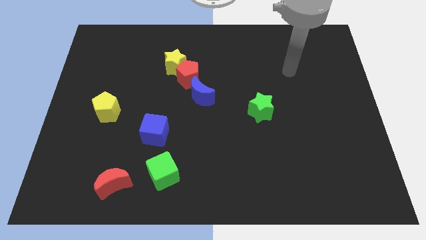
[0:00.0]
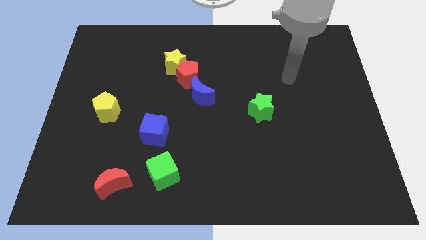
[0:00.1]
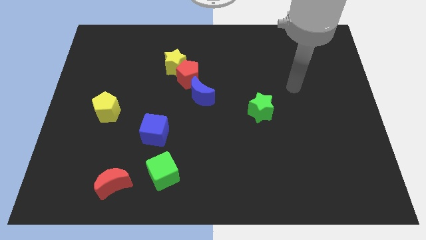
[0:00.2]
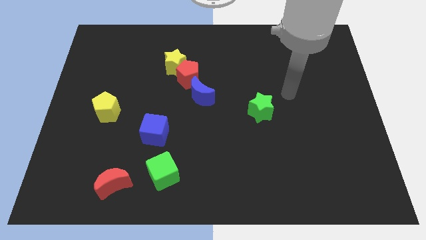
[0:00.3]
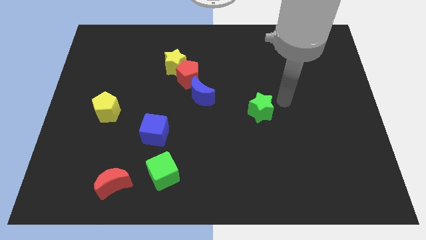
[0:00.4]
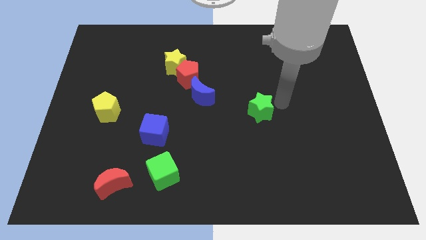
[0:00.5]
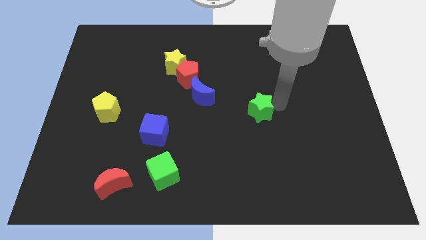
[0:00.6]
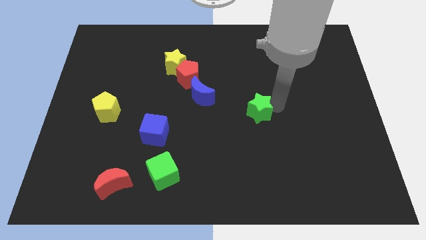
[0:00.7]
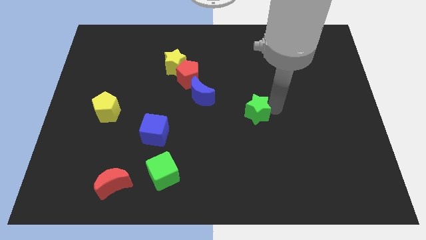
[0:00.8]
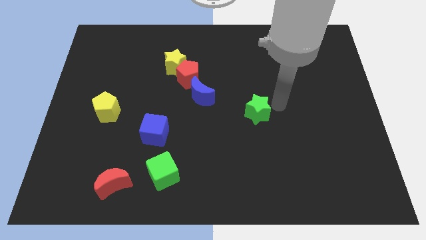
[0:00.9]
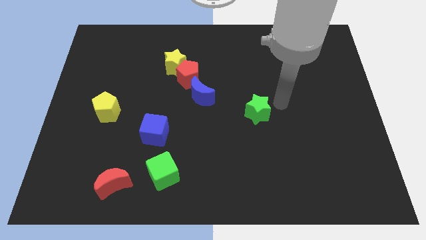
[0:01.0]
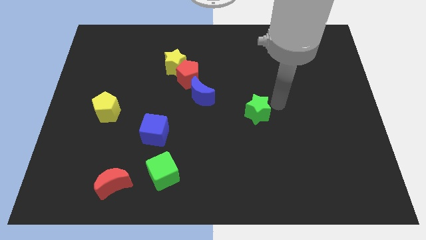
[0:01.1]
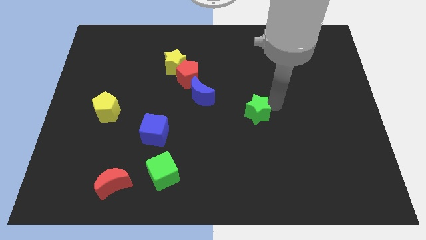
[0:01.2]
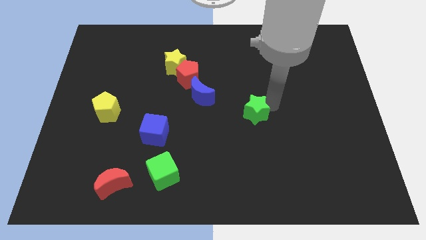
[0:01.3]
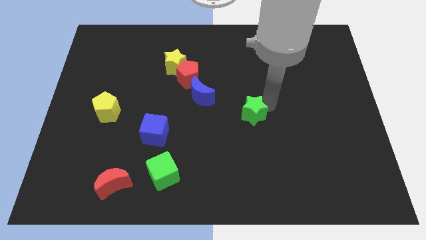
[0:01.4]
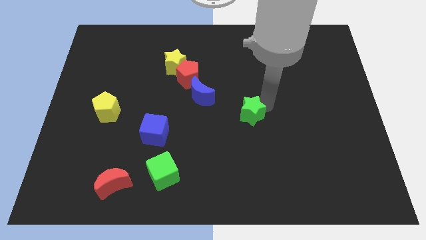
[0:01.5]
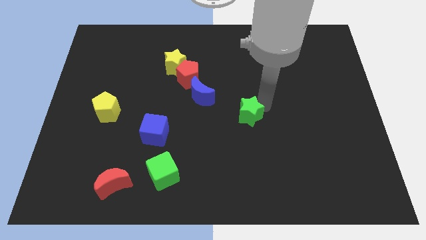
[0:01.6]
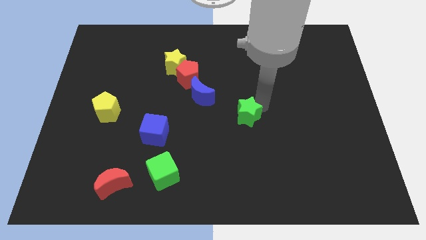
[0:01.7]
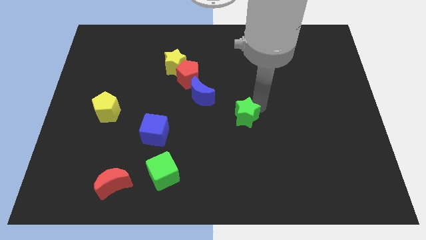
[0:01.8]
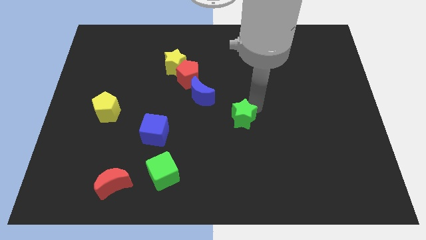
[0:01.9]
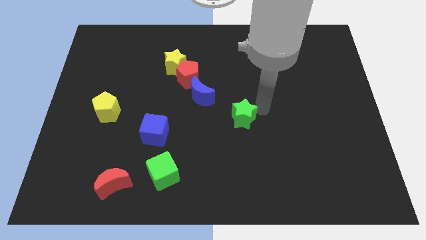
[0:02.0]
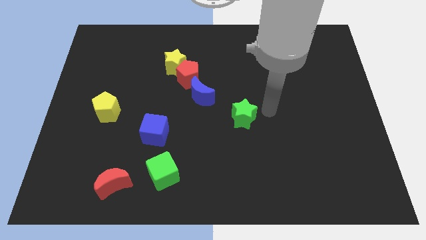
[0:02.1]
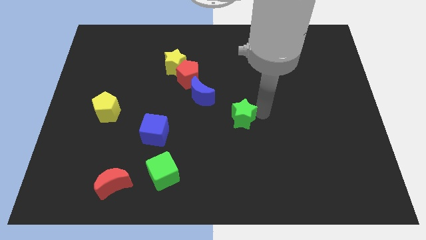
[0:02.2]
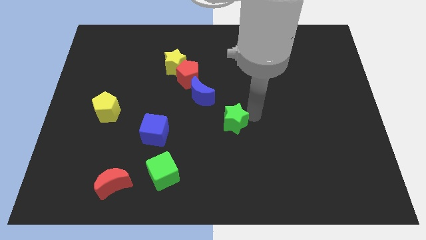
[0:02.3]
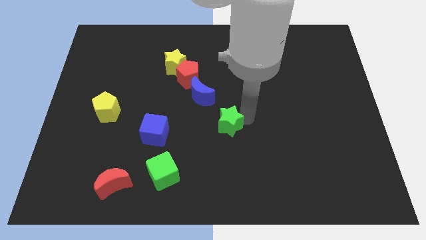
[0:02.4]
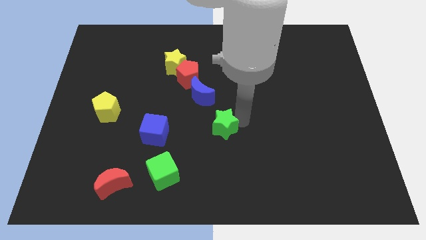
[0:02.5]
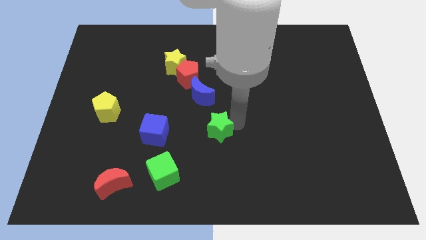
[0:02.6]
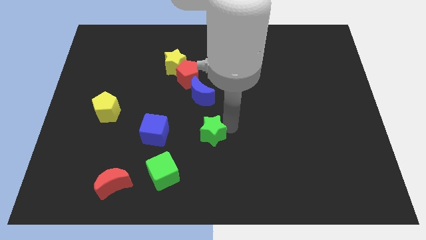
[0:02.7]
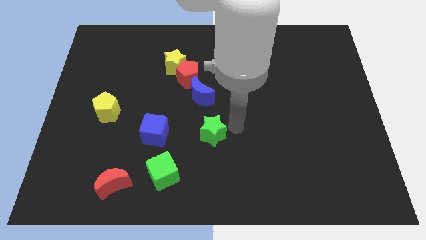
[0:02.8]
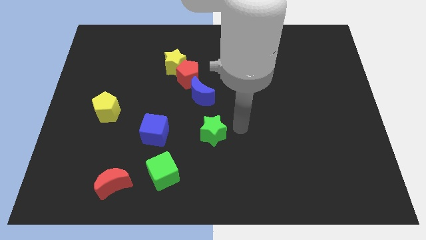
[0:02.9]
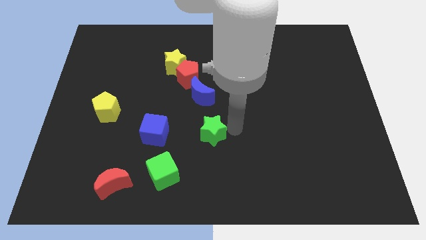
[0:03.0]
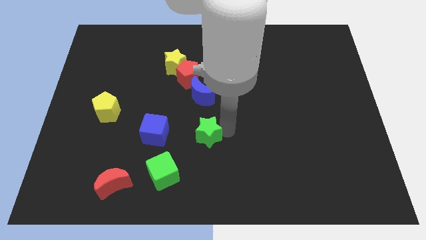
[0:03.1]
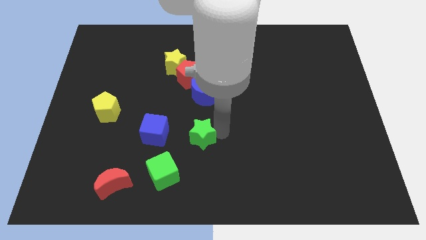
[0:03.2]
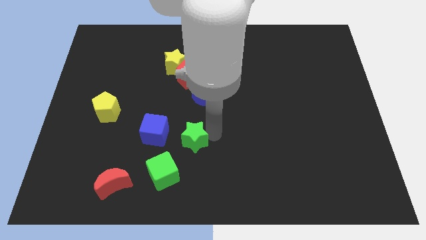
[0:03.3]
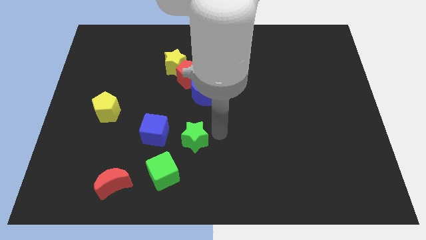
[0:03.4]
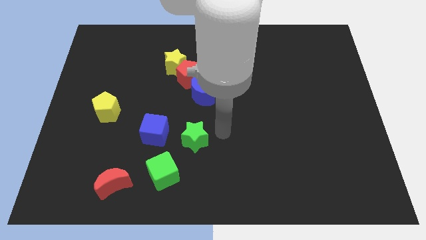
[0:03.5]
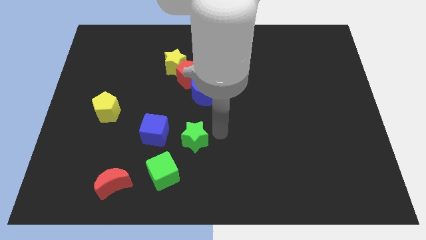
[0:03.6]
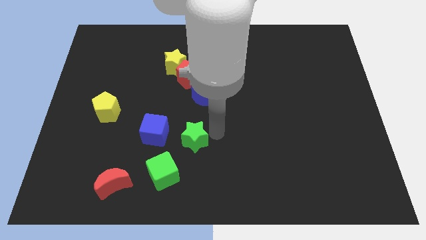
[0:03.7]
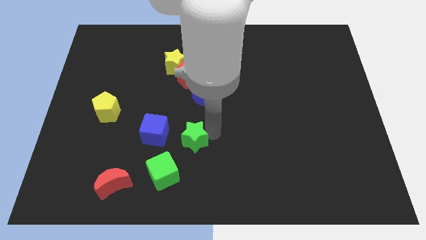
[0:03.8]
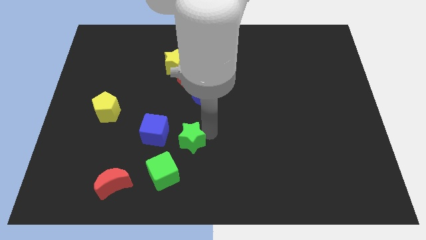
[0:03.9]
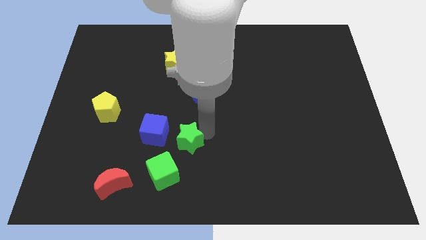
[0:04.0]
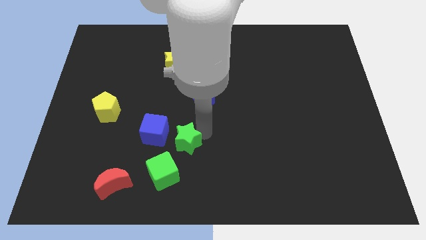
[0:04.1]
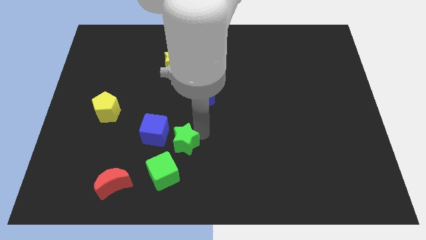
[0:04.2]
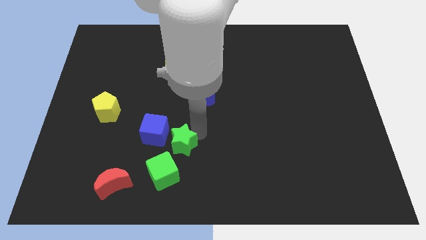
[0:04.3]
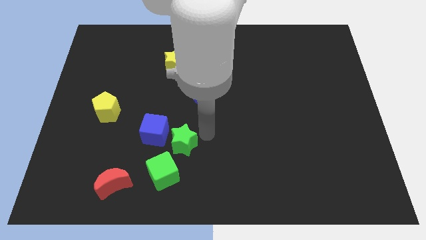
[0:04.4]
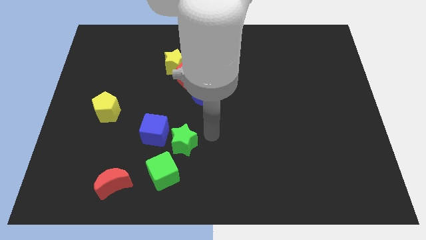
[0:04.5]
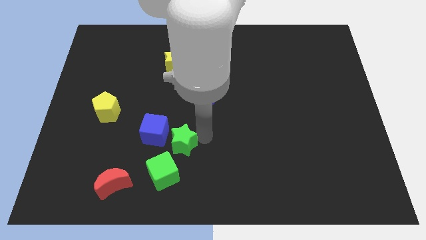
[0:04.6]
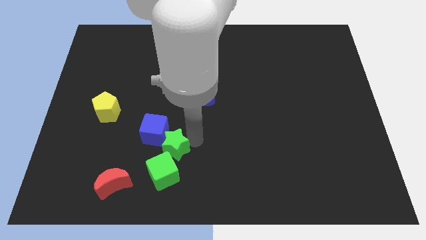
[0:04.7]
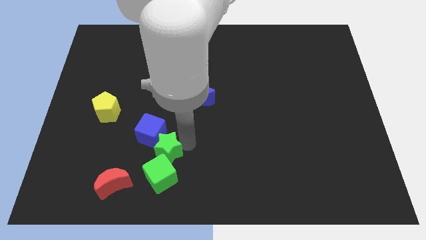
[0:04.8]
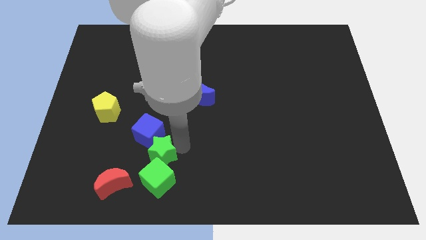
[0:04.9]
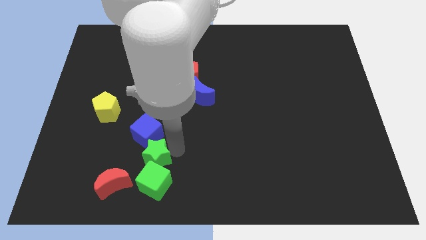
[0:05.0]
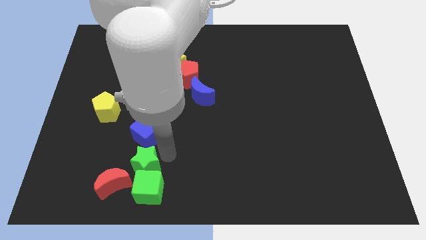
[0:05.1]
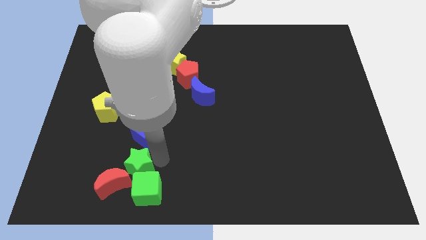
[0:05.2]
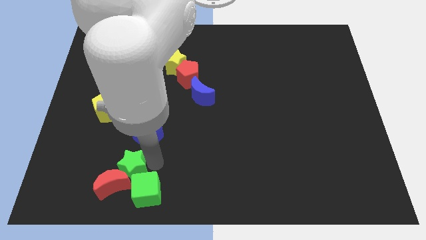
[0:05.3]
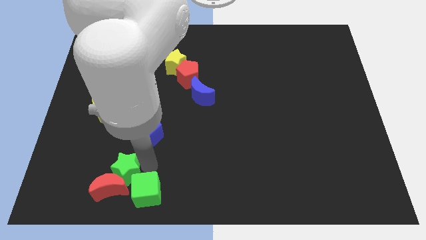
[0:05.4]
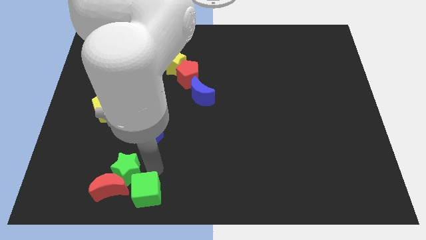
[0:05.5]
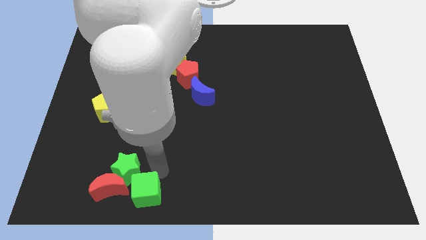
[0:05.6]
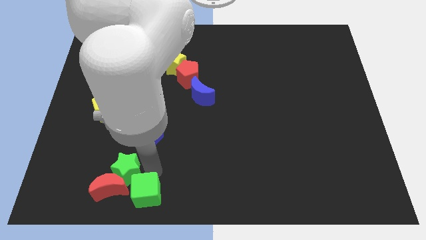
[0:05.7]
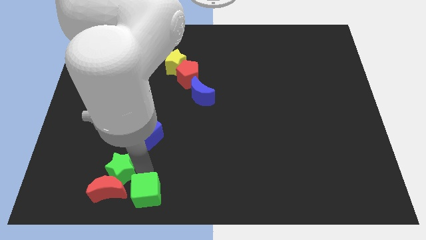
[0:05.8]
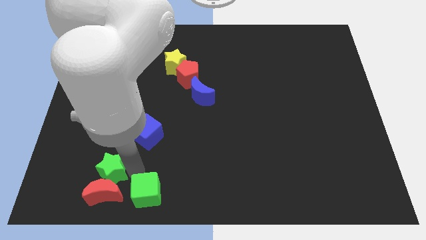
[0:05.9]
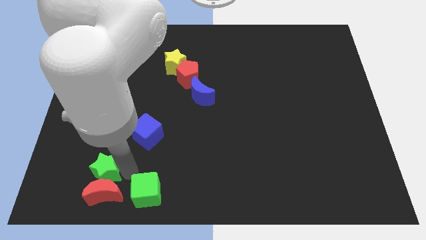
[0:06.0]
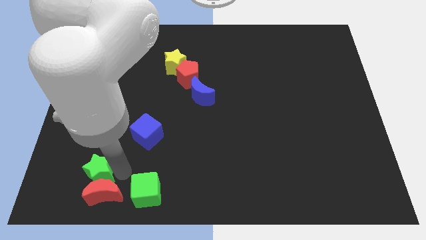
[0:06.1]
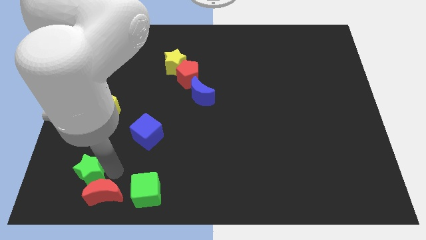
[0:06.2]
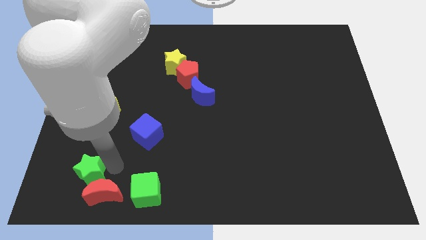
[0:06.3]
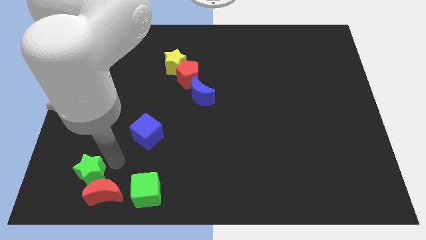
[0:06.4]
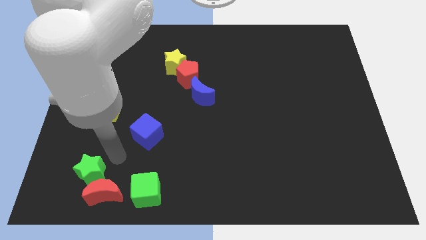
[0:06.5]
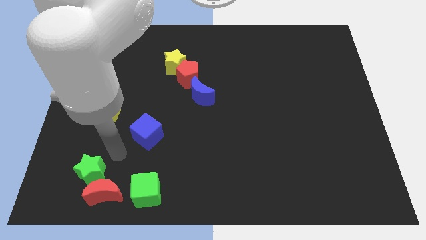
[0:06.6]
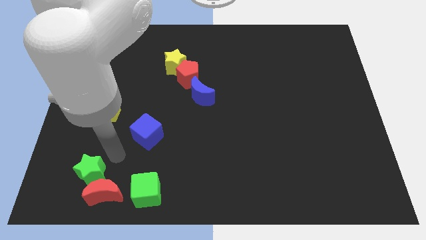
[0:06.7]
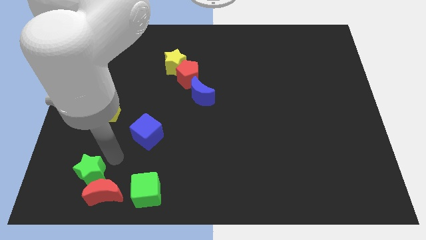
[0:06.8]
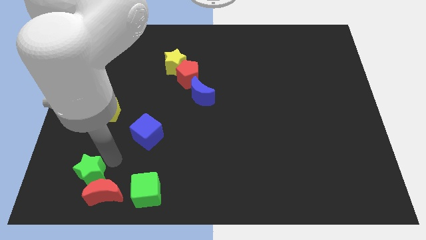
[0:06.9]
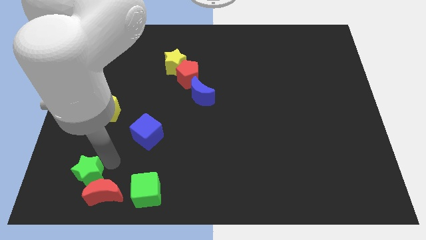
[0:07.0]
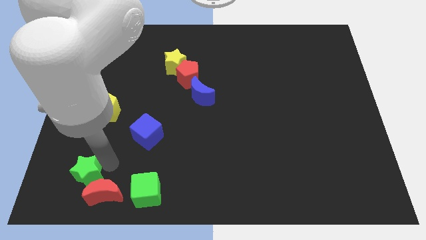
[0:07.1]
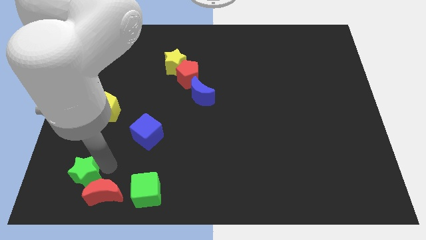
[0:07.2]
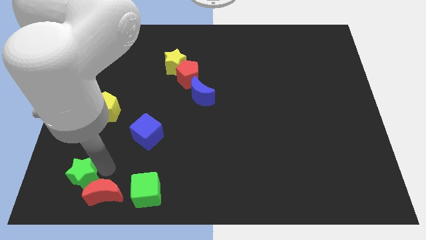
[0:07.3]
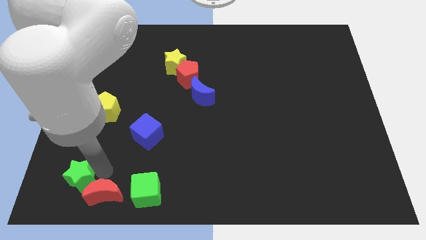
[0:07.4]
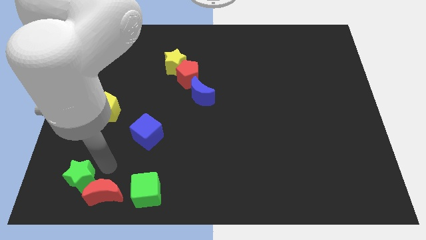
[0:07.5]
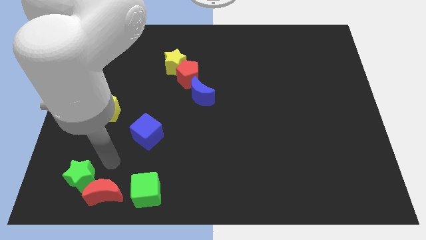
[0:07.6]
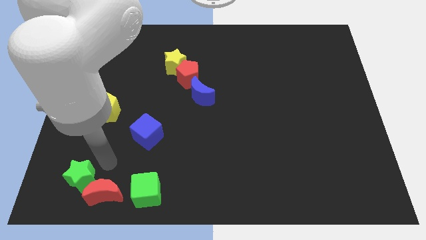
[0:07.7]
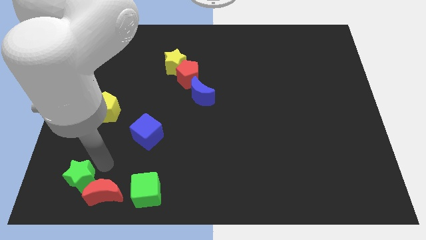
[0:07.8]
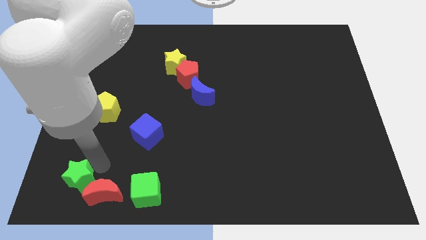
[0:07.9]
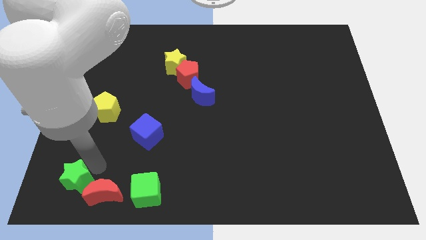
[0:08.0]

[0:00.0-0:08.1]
push the green star to the bottom left corner
